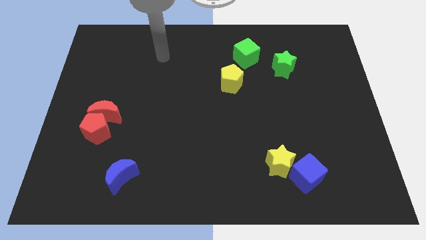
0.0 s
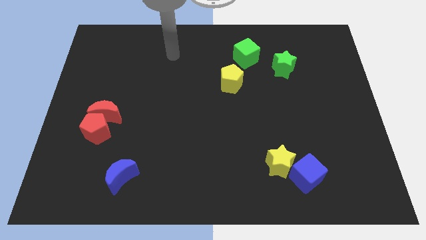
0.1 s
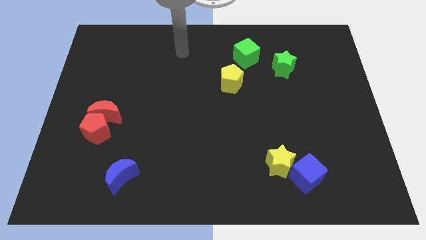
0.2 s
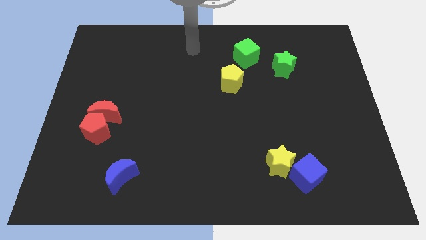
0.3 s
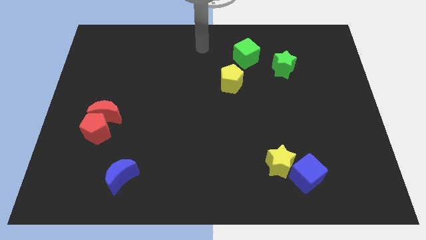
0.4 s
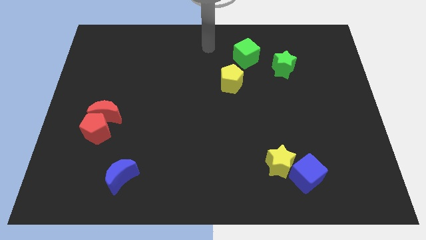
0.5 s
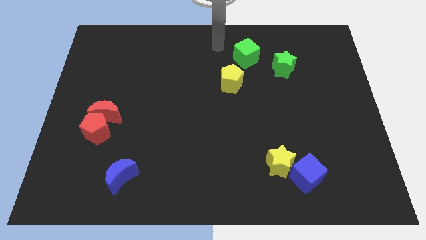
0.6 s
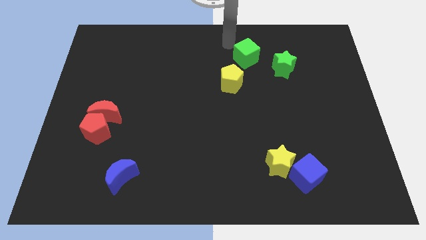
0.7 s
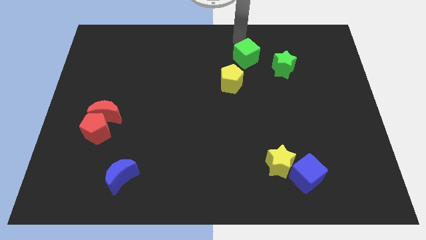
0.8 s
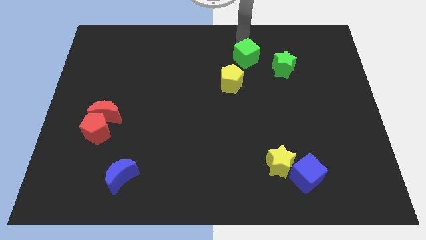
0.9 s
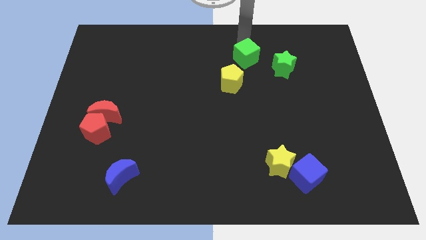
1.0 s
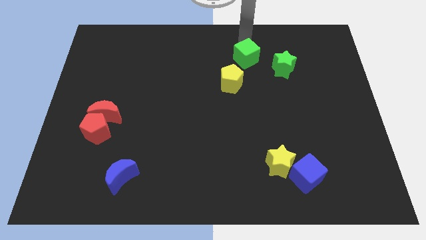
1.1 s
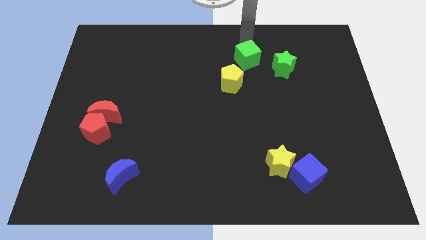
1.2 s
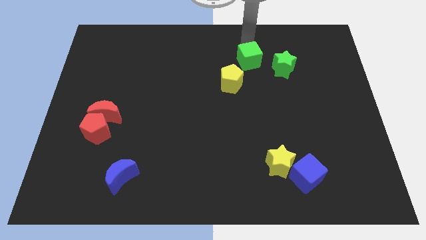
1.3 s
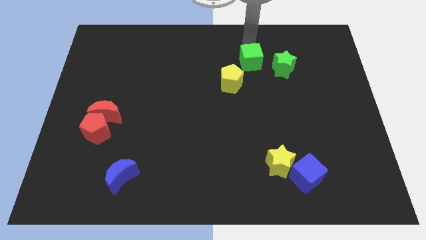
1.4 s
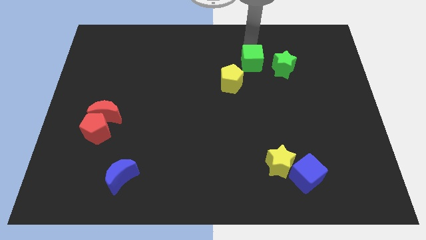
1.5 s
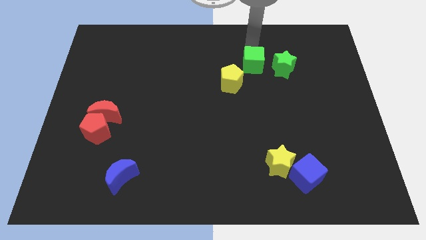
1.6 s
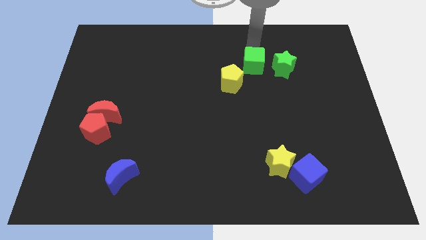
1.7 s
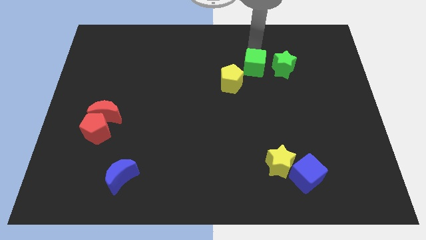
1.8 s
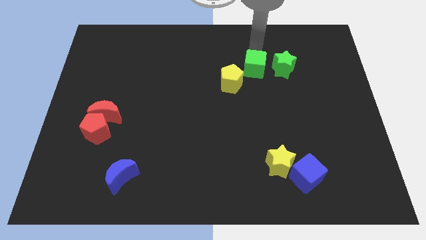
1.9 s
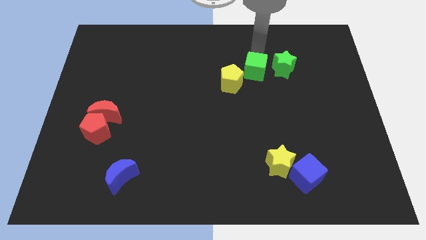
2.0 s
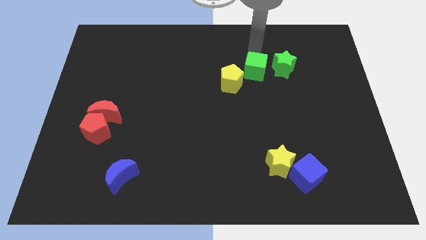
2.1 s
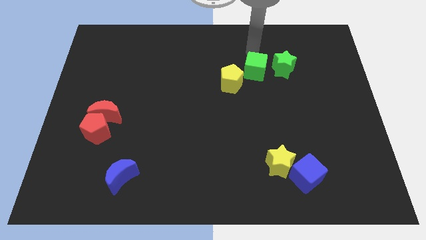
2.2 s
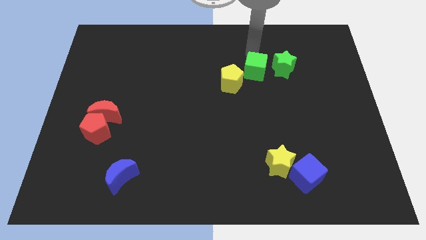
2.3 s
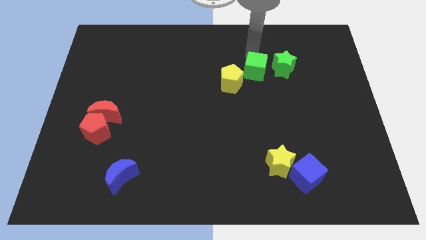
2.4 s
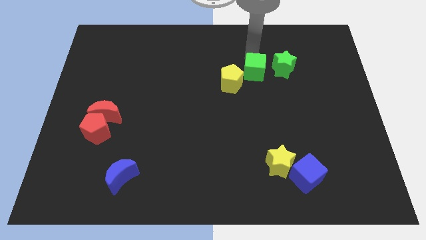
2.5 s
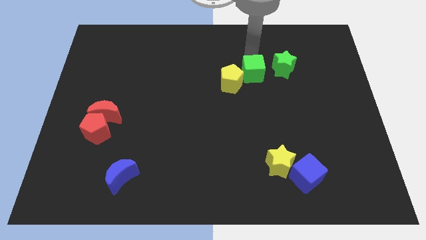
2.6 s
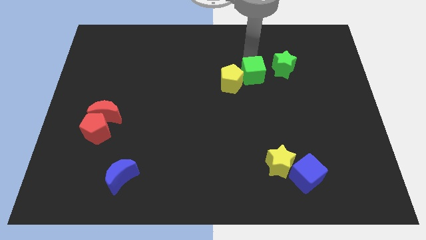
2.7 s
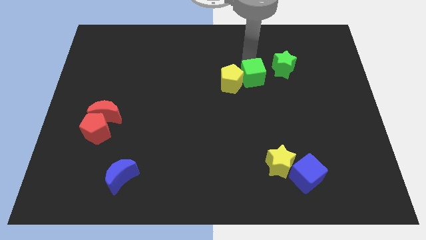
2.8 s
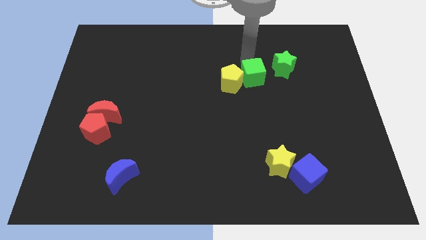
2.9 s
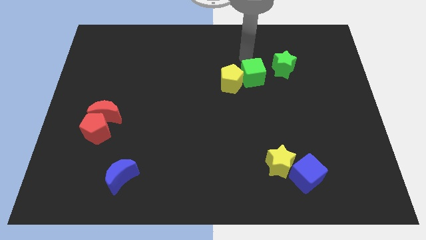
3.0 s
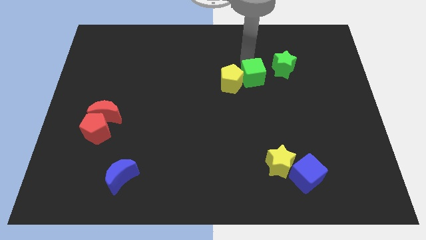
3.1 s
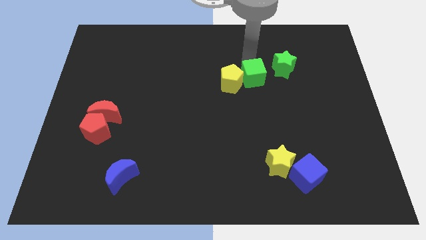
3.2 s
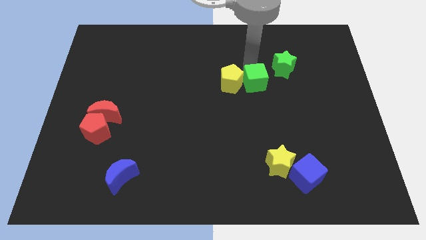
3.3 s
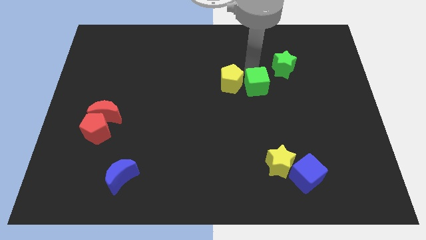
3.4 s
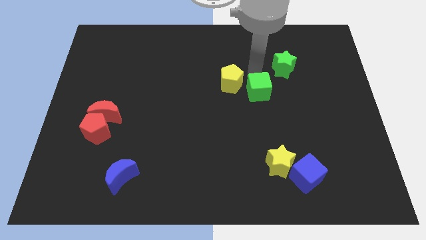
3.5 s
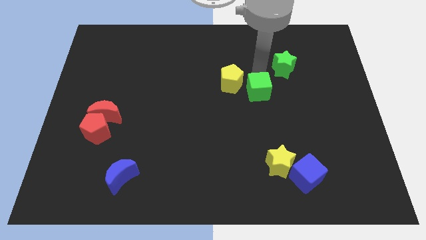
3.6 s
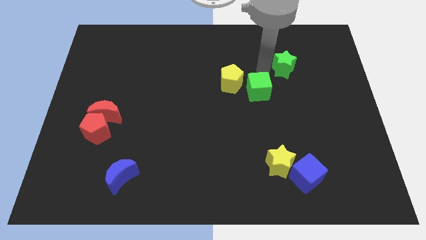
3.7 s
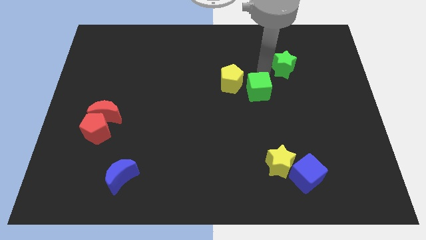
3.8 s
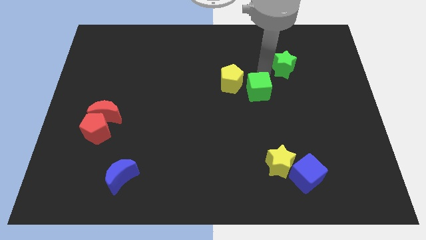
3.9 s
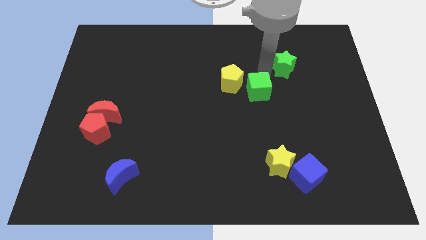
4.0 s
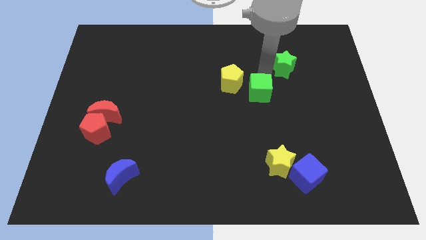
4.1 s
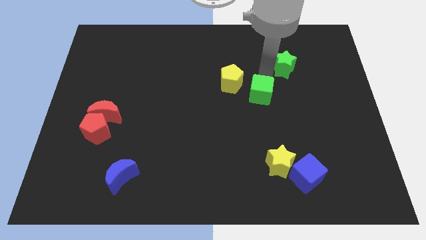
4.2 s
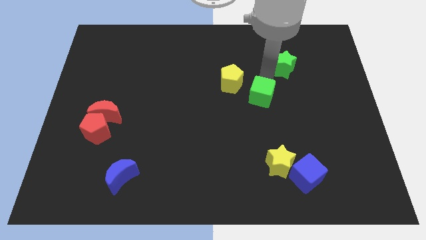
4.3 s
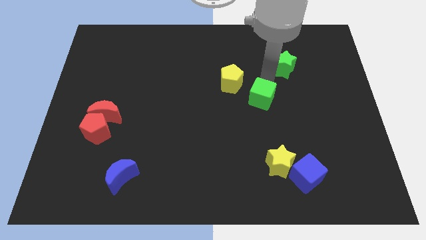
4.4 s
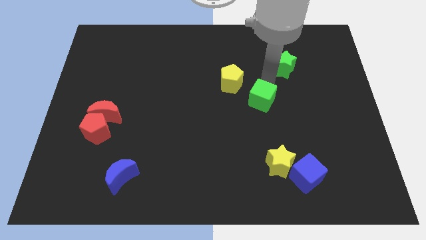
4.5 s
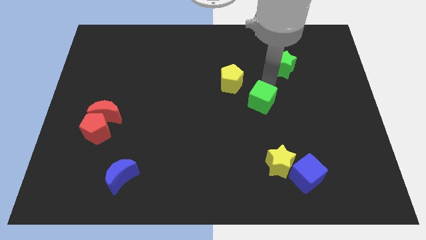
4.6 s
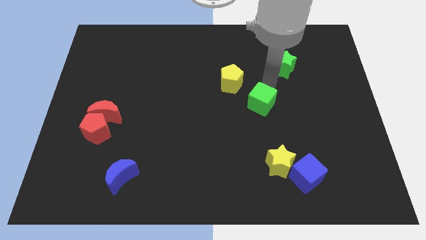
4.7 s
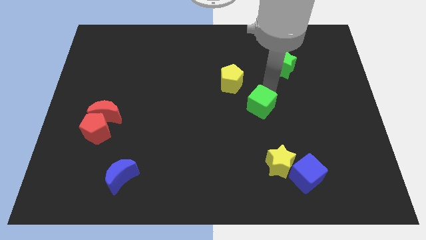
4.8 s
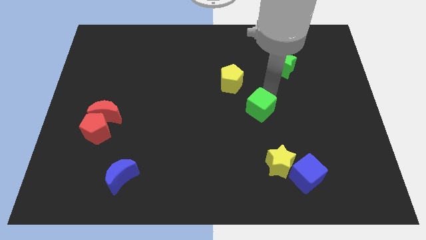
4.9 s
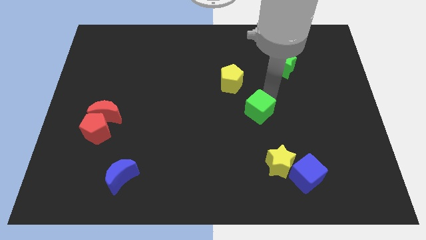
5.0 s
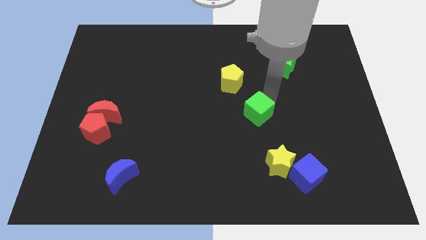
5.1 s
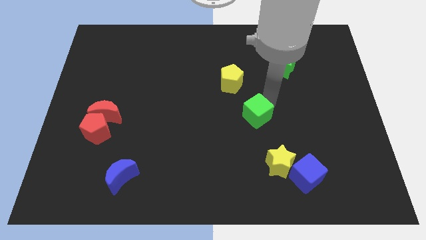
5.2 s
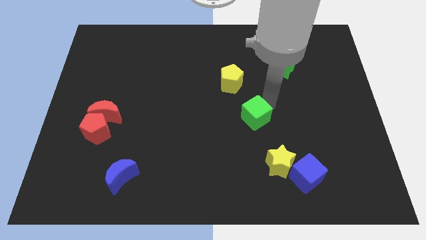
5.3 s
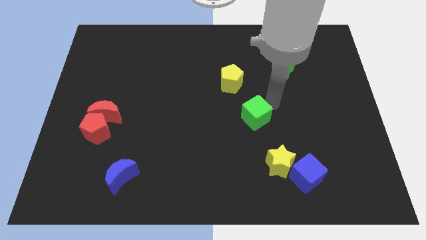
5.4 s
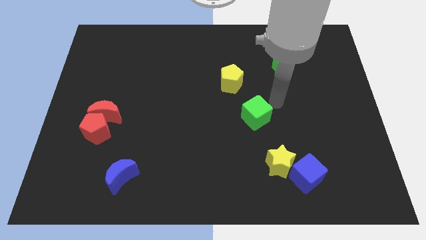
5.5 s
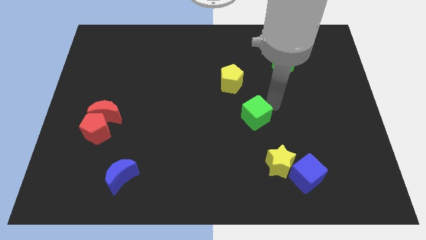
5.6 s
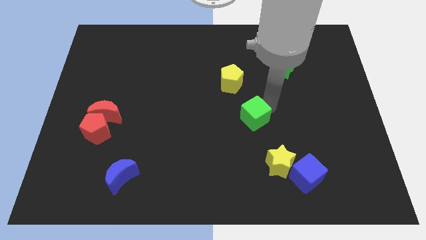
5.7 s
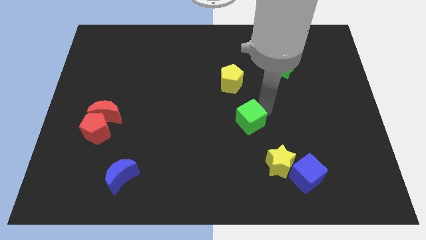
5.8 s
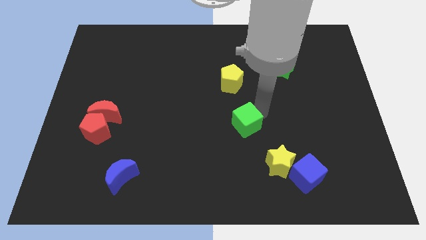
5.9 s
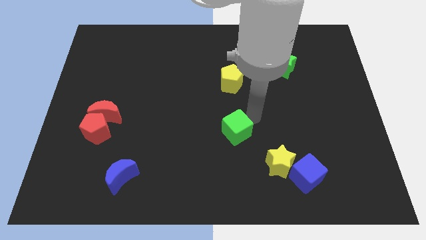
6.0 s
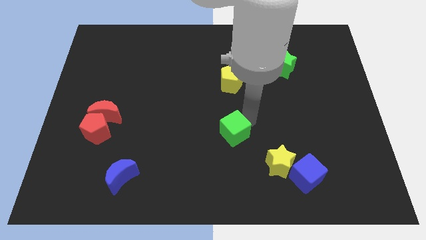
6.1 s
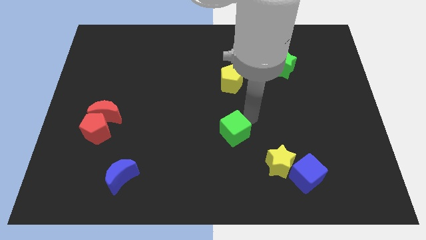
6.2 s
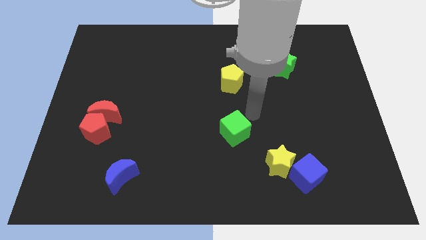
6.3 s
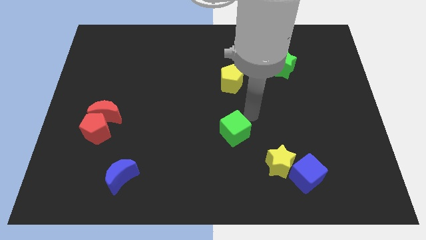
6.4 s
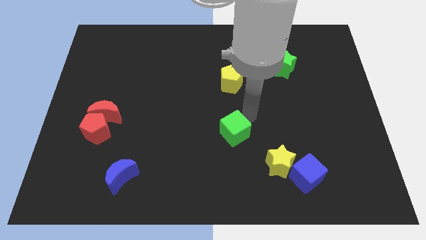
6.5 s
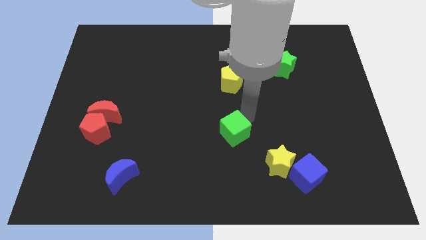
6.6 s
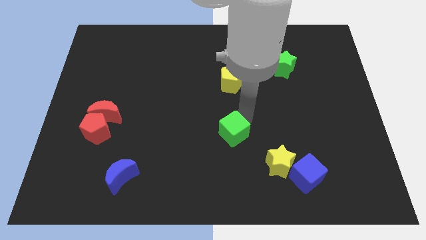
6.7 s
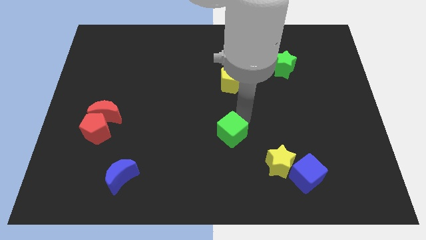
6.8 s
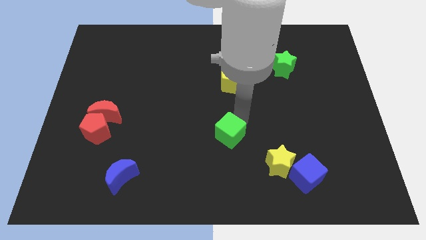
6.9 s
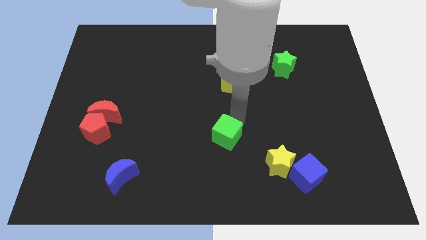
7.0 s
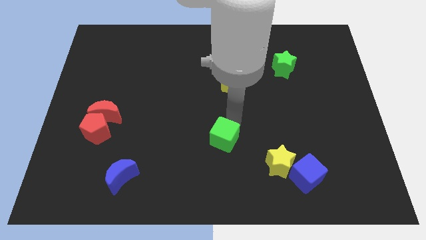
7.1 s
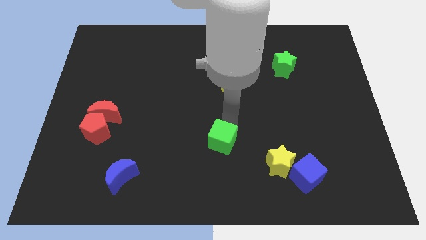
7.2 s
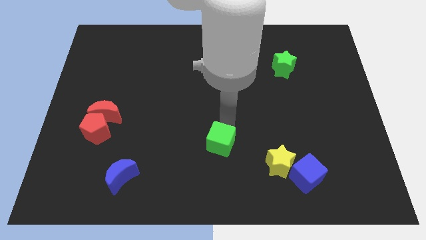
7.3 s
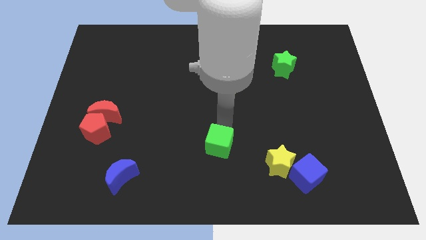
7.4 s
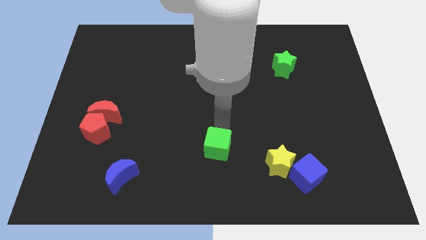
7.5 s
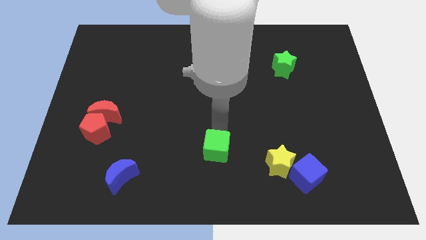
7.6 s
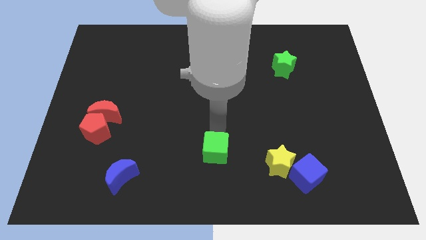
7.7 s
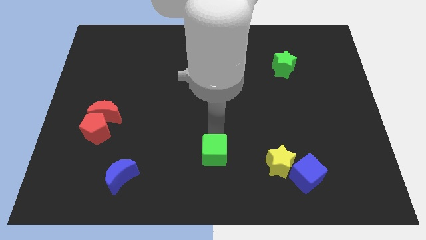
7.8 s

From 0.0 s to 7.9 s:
put the green cube to the bottom
